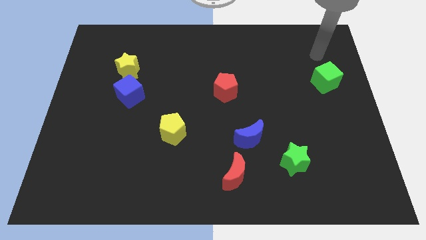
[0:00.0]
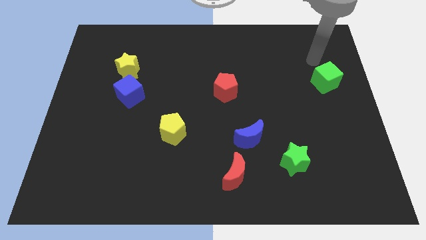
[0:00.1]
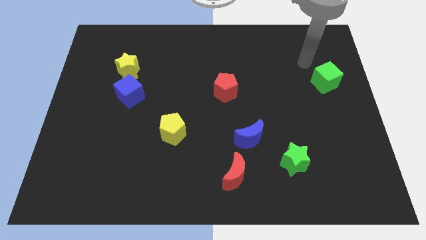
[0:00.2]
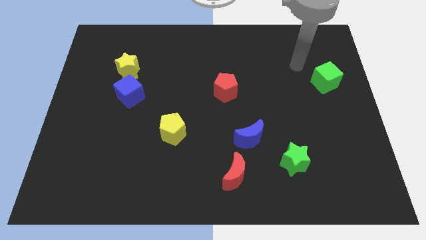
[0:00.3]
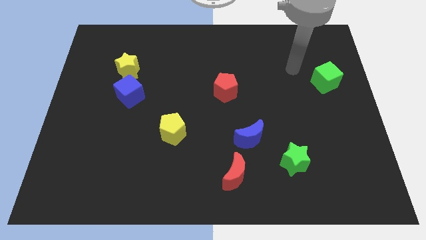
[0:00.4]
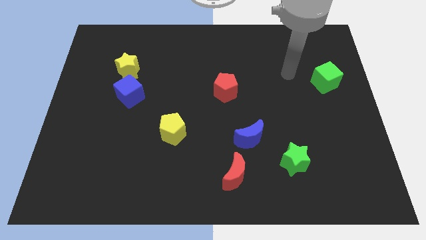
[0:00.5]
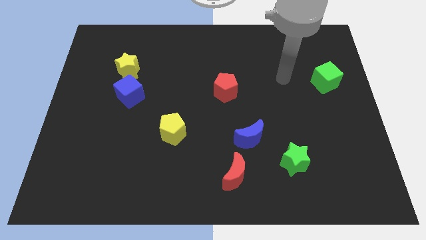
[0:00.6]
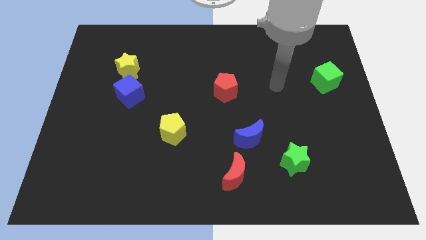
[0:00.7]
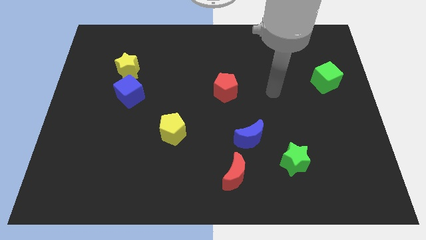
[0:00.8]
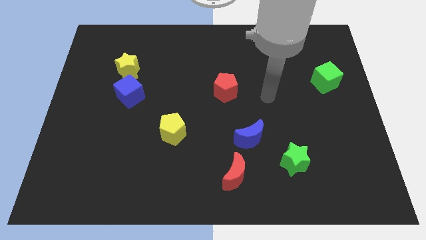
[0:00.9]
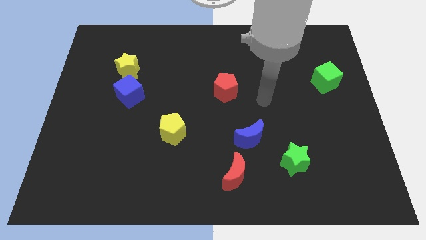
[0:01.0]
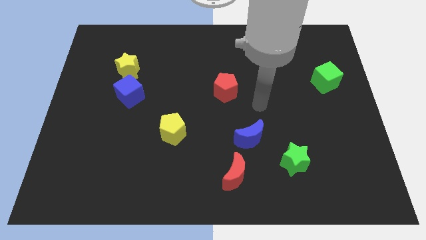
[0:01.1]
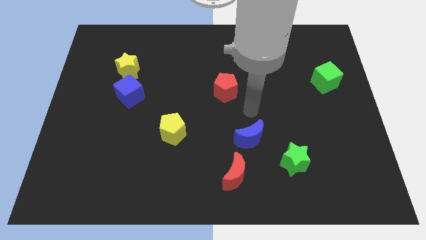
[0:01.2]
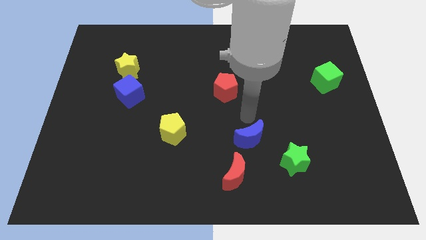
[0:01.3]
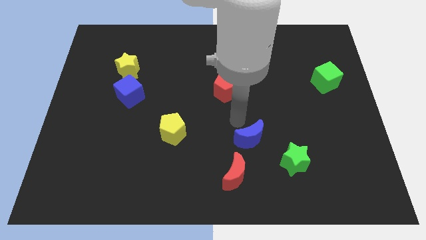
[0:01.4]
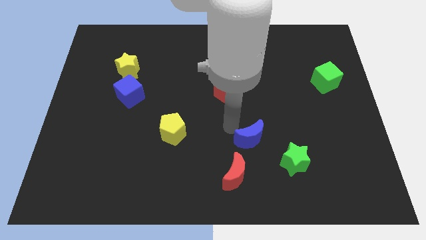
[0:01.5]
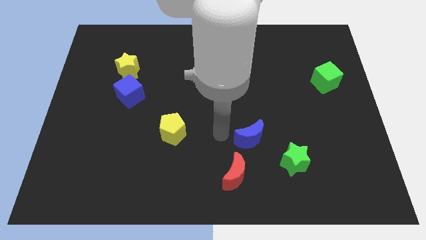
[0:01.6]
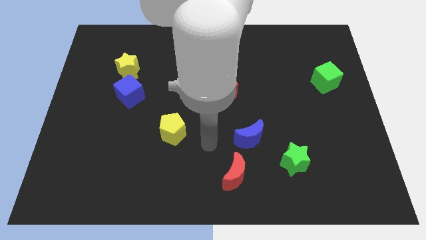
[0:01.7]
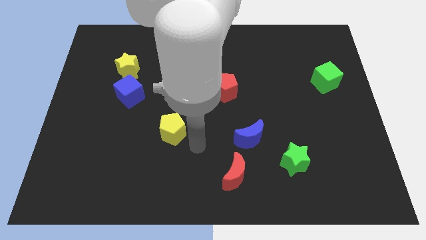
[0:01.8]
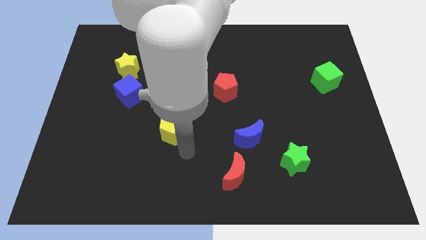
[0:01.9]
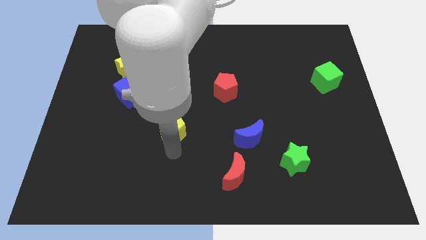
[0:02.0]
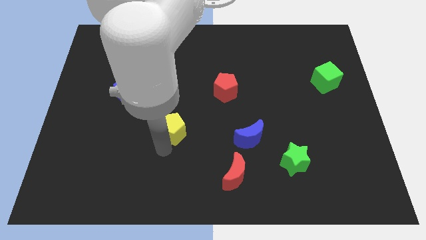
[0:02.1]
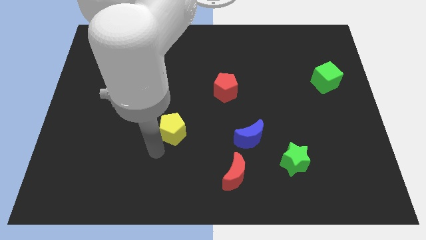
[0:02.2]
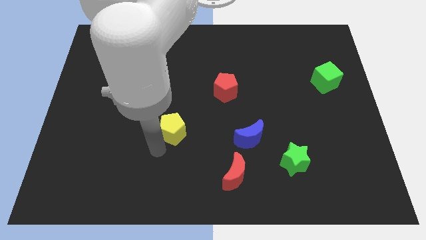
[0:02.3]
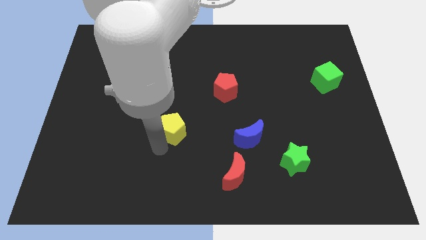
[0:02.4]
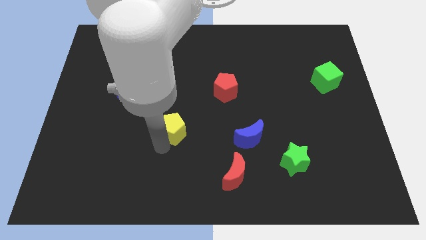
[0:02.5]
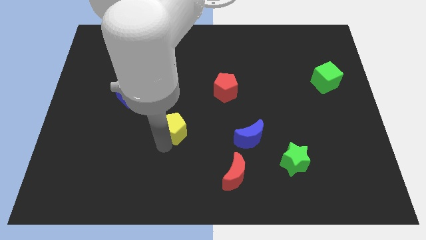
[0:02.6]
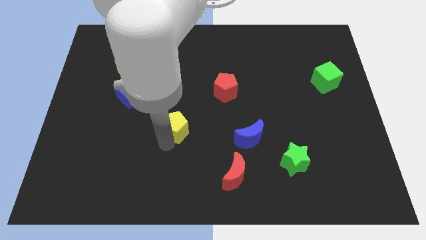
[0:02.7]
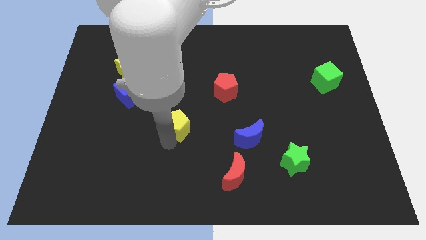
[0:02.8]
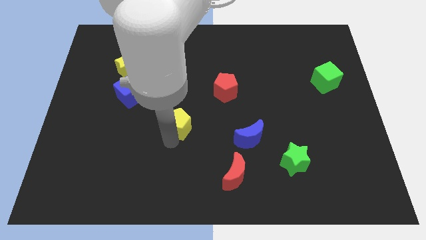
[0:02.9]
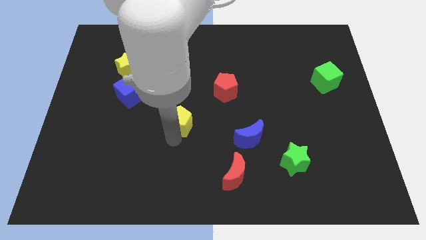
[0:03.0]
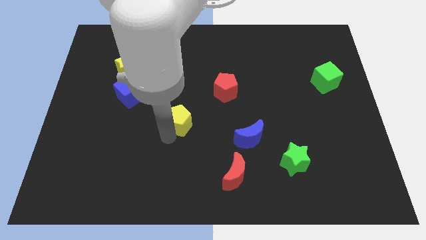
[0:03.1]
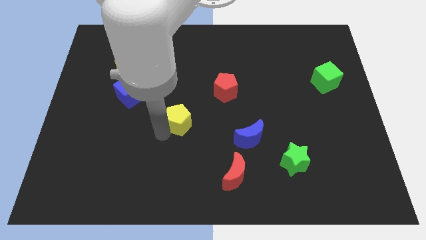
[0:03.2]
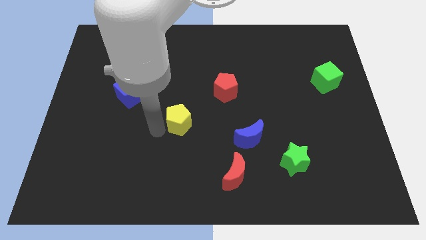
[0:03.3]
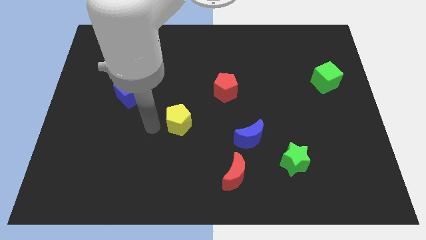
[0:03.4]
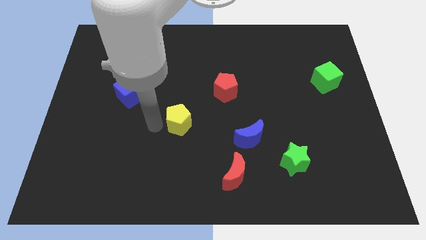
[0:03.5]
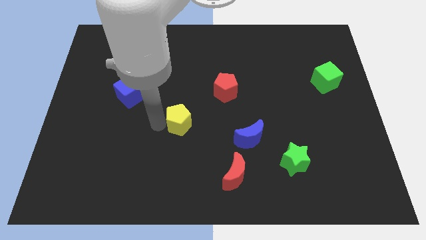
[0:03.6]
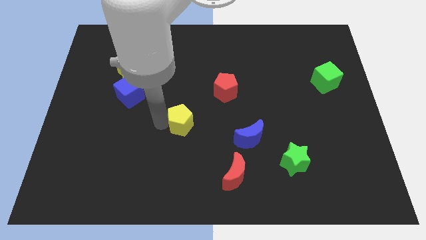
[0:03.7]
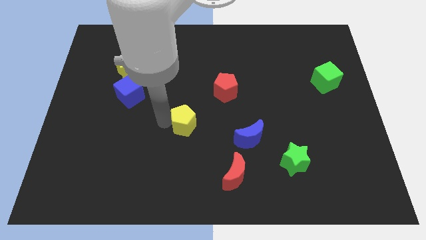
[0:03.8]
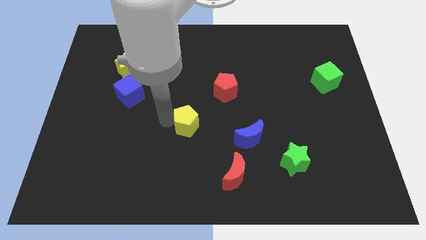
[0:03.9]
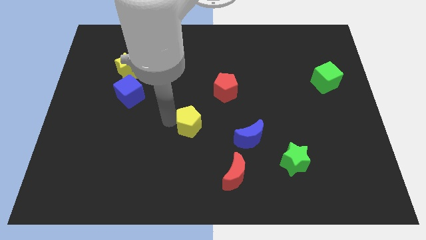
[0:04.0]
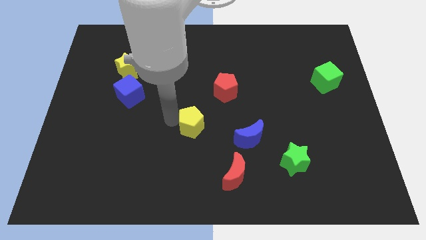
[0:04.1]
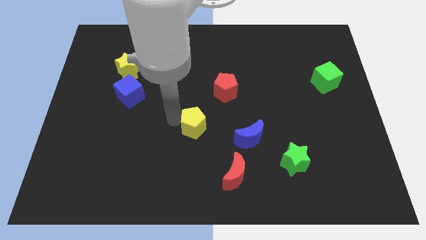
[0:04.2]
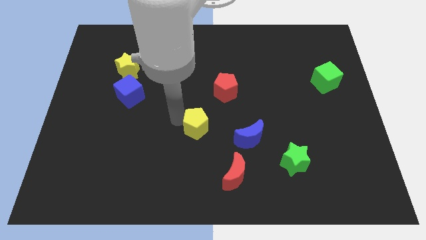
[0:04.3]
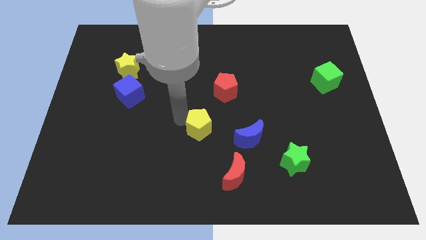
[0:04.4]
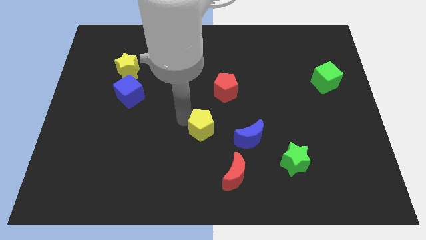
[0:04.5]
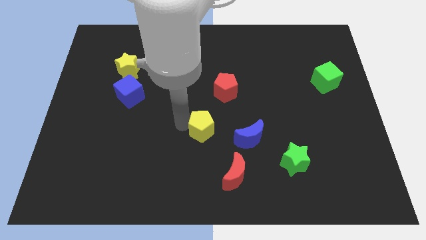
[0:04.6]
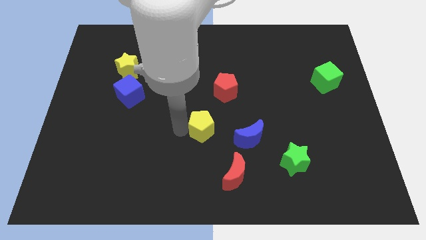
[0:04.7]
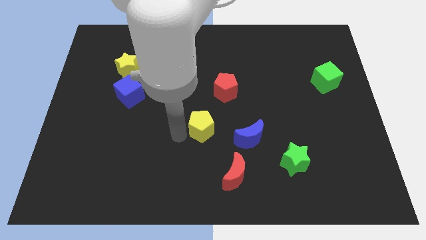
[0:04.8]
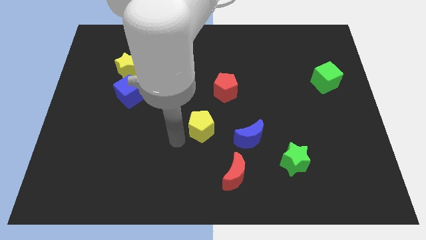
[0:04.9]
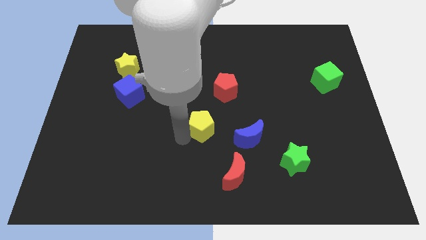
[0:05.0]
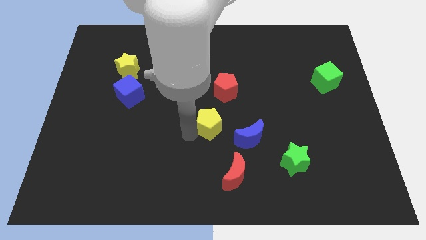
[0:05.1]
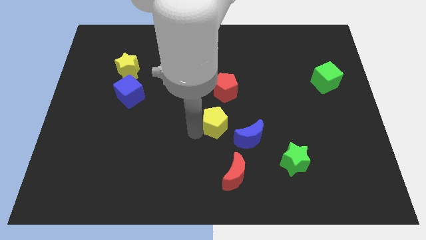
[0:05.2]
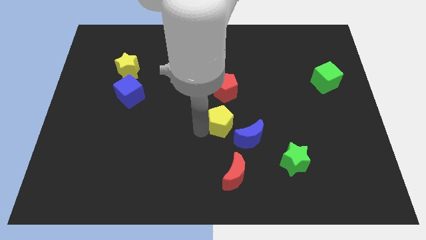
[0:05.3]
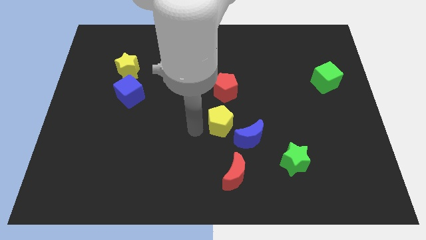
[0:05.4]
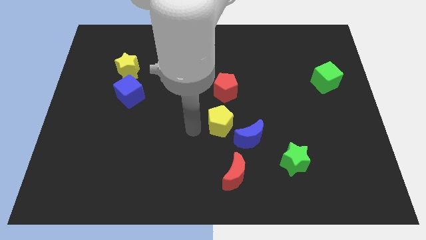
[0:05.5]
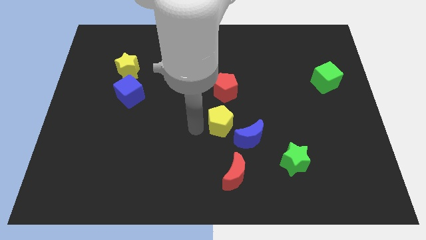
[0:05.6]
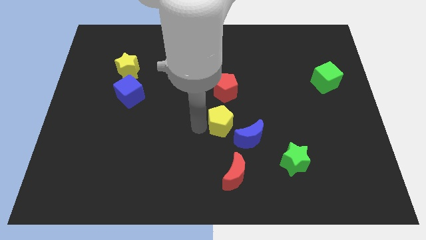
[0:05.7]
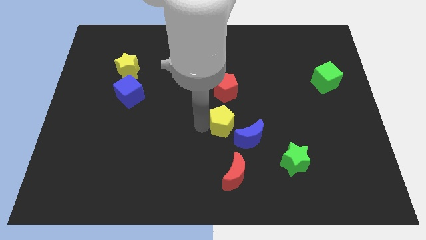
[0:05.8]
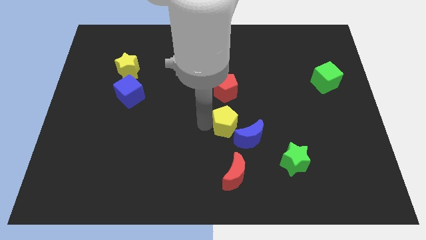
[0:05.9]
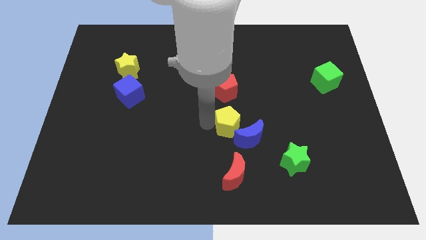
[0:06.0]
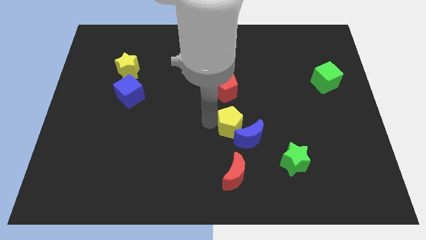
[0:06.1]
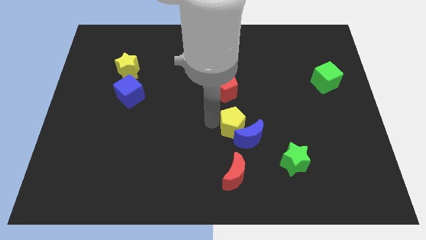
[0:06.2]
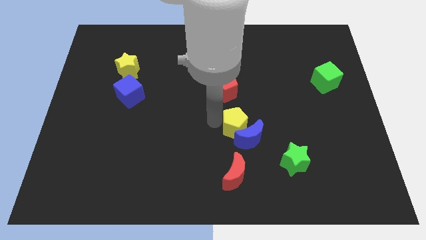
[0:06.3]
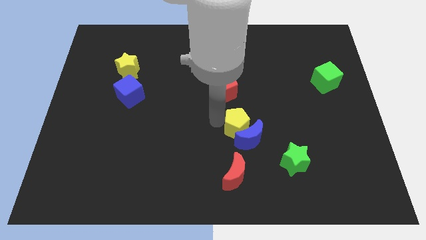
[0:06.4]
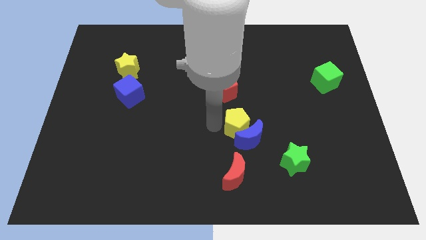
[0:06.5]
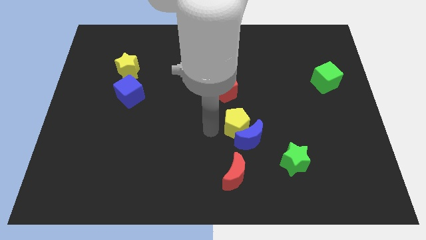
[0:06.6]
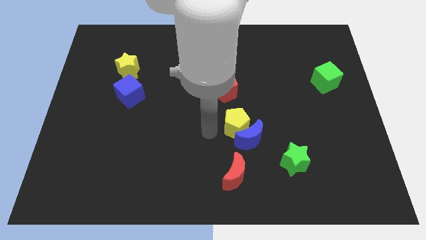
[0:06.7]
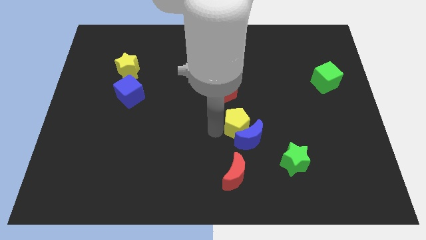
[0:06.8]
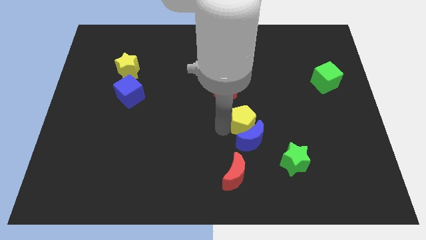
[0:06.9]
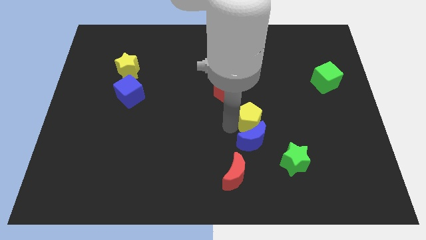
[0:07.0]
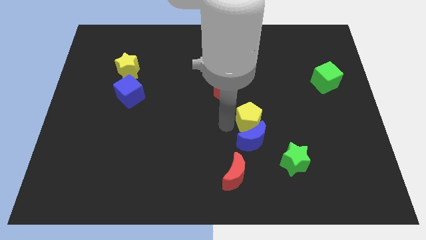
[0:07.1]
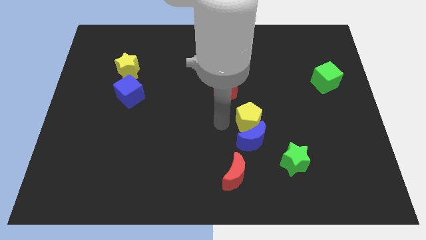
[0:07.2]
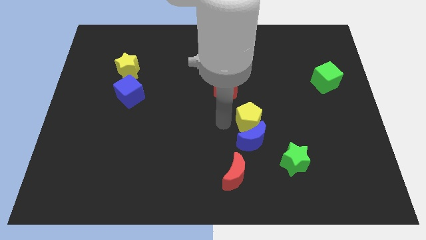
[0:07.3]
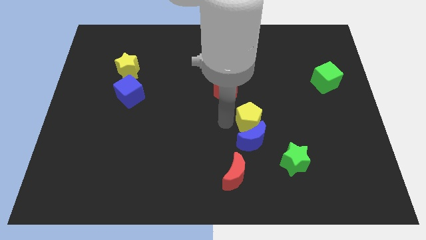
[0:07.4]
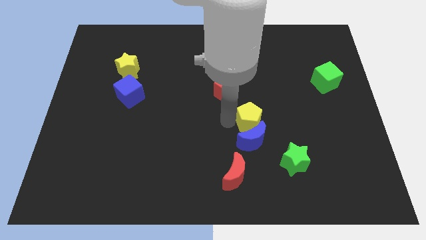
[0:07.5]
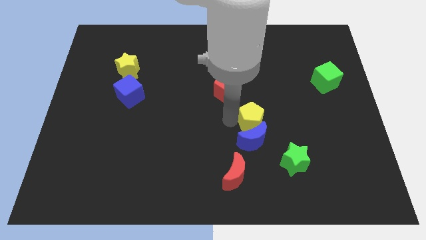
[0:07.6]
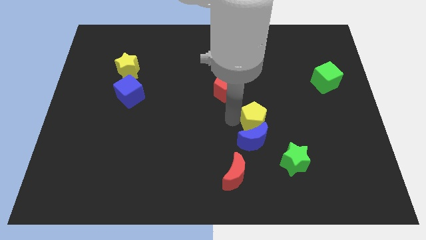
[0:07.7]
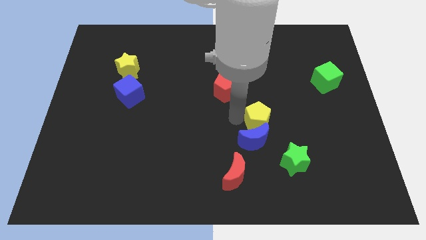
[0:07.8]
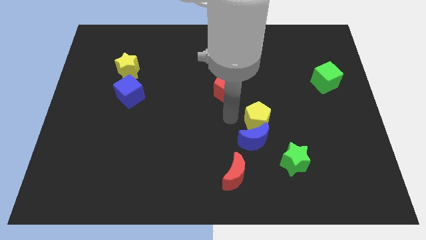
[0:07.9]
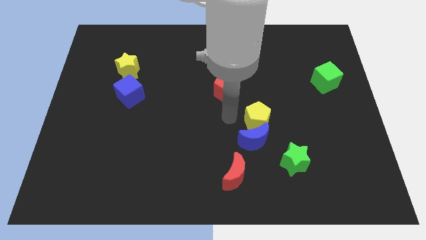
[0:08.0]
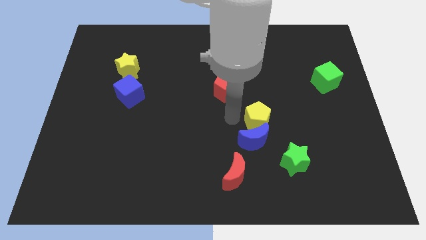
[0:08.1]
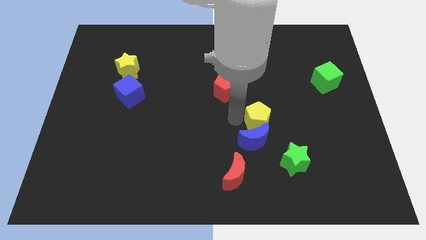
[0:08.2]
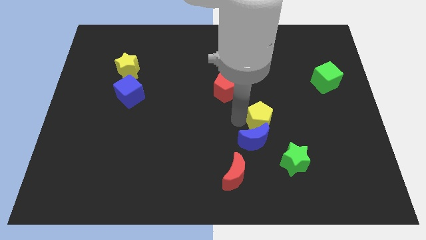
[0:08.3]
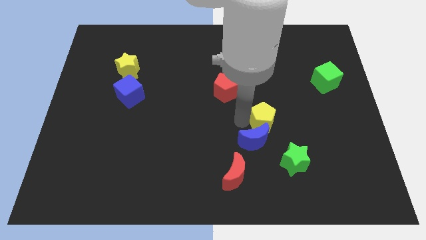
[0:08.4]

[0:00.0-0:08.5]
move the yellow pentagon right
